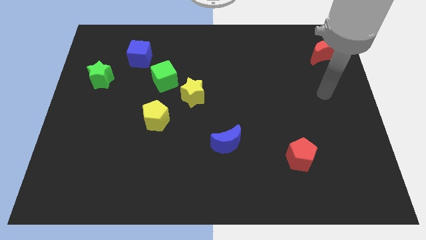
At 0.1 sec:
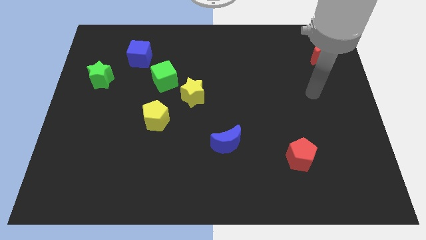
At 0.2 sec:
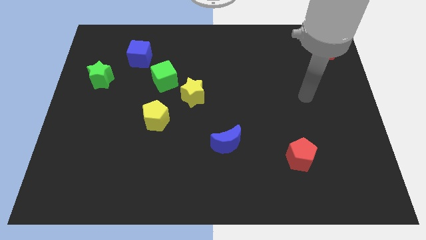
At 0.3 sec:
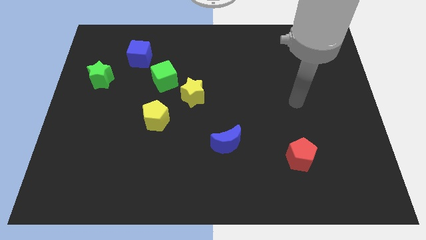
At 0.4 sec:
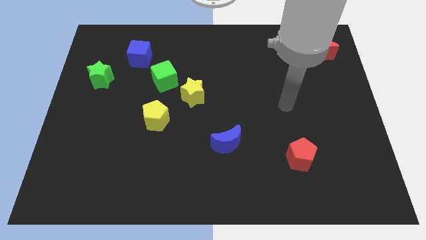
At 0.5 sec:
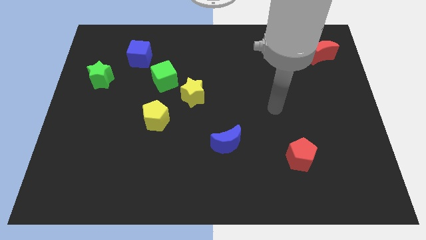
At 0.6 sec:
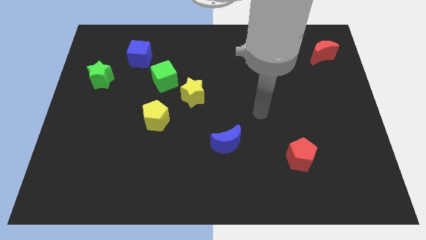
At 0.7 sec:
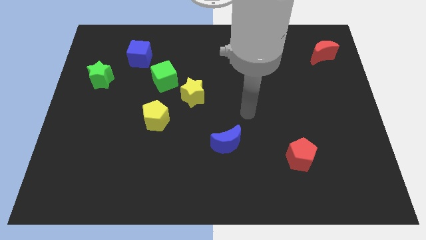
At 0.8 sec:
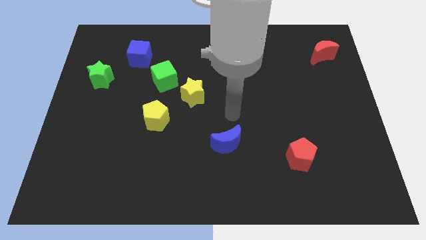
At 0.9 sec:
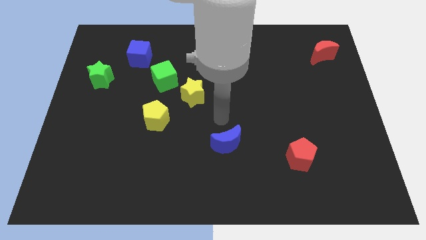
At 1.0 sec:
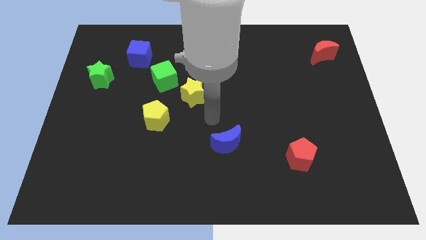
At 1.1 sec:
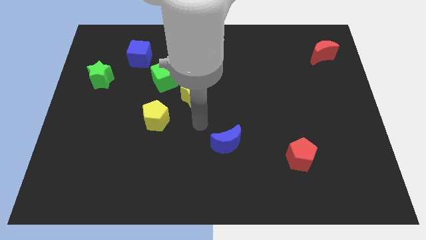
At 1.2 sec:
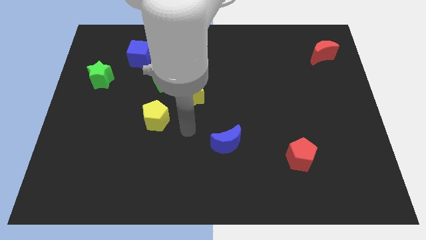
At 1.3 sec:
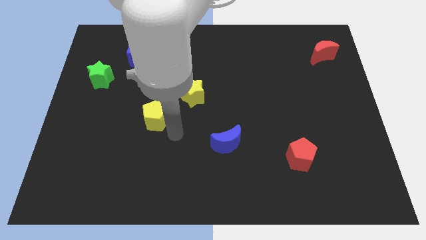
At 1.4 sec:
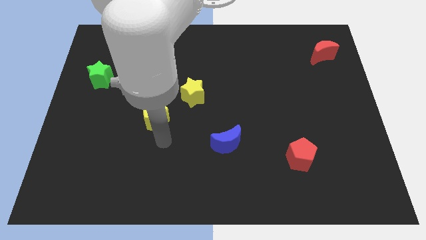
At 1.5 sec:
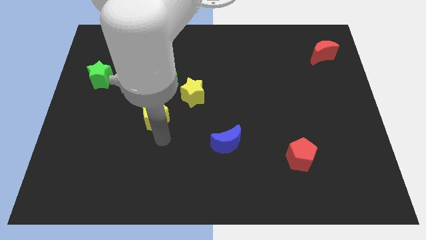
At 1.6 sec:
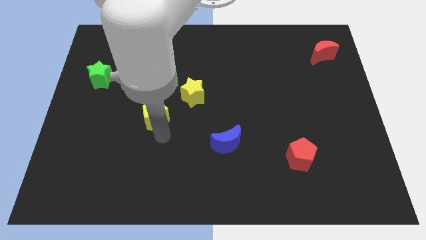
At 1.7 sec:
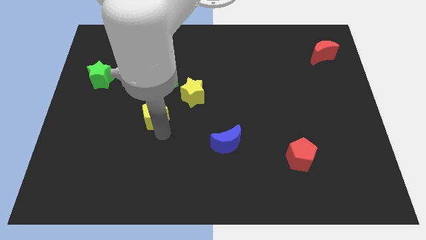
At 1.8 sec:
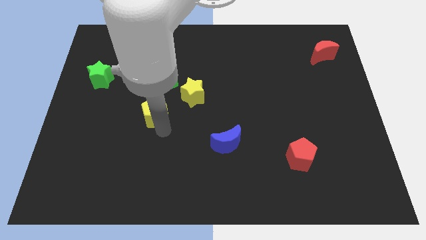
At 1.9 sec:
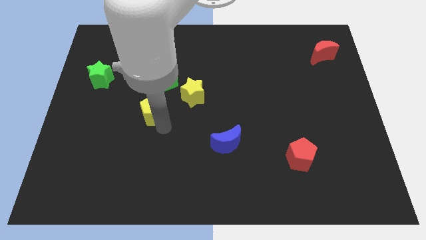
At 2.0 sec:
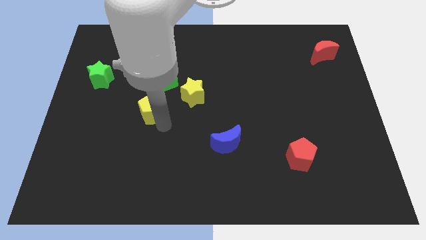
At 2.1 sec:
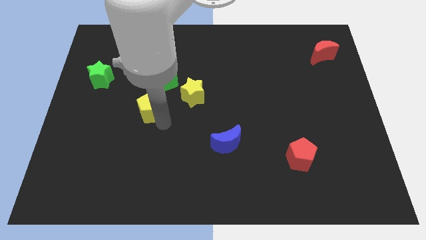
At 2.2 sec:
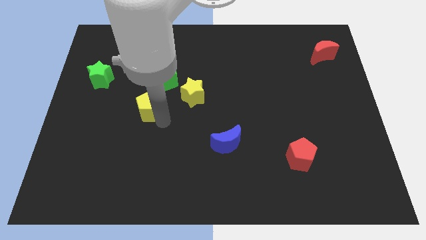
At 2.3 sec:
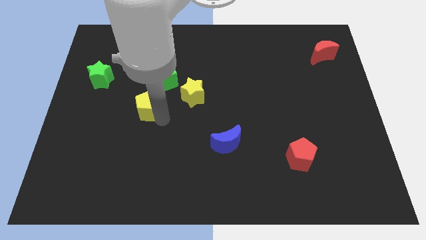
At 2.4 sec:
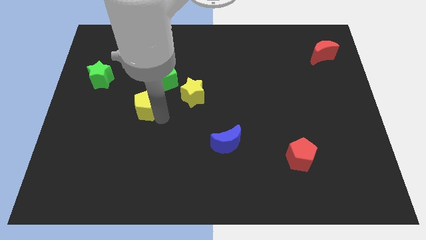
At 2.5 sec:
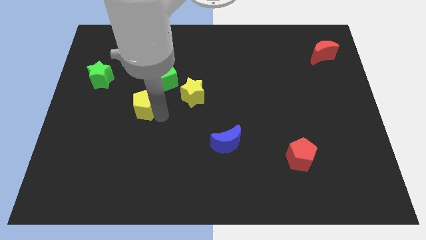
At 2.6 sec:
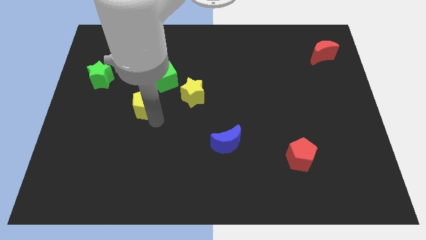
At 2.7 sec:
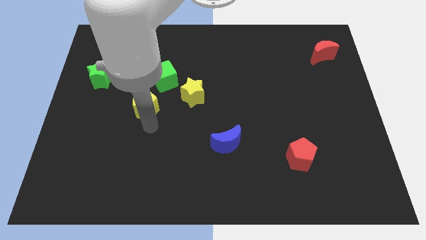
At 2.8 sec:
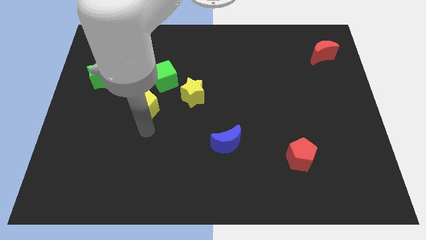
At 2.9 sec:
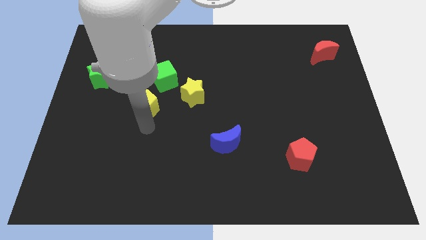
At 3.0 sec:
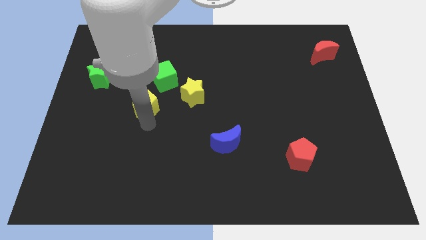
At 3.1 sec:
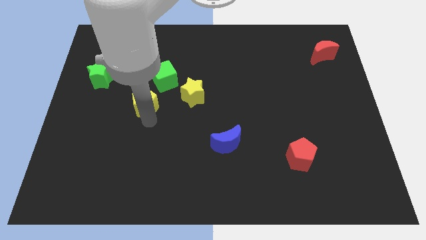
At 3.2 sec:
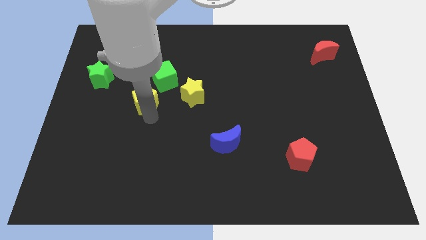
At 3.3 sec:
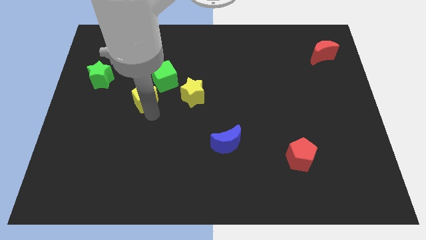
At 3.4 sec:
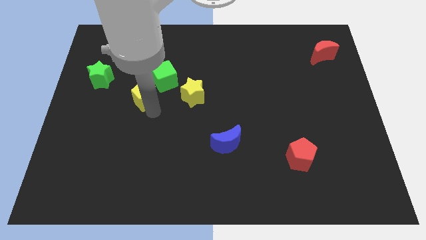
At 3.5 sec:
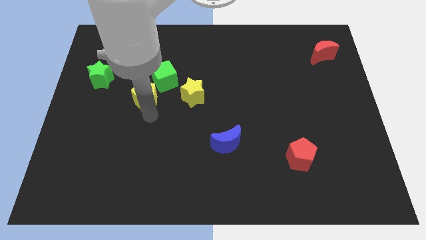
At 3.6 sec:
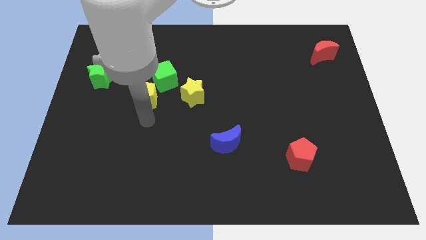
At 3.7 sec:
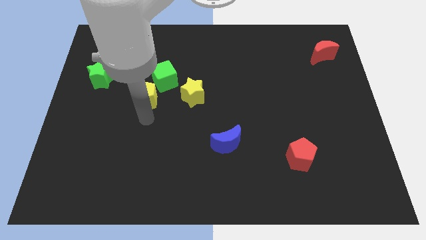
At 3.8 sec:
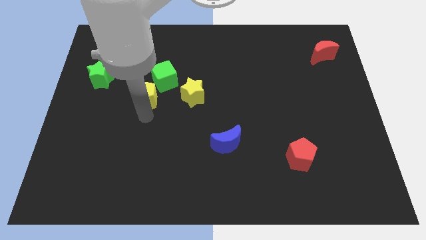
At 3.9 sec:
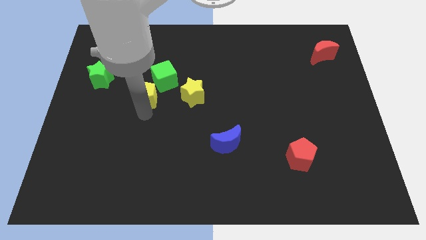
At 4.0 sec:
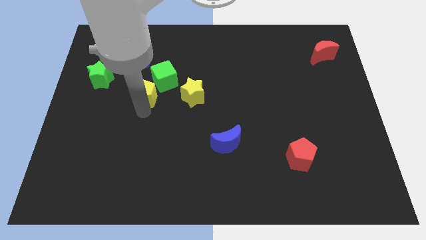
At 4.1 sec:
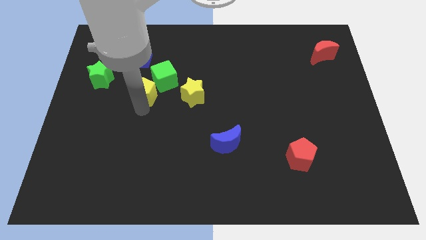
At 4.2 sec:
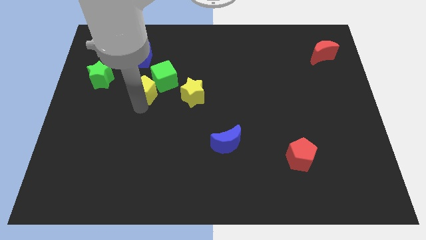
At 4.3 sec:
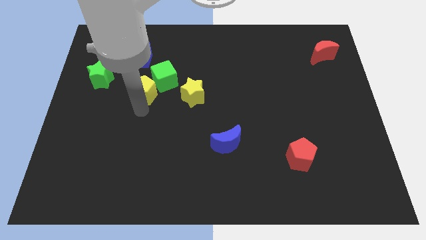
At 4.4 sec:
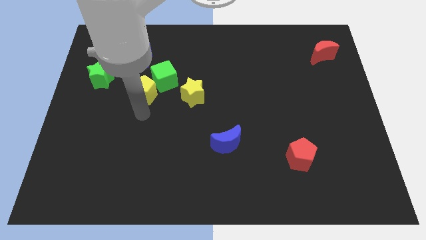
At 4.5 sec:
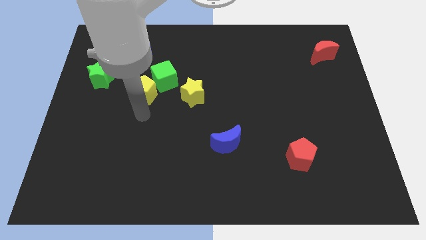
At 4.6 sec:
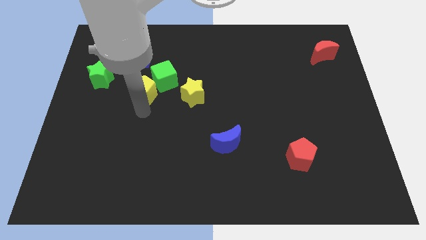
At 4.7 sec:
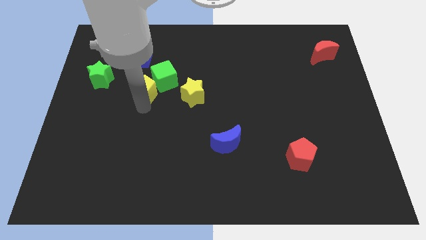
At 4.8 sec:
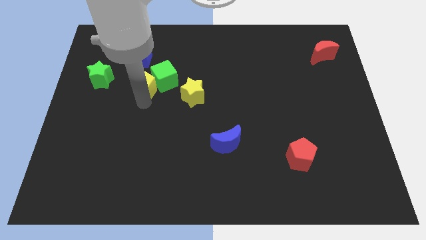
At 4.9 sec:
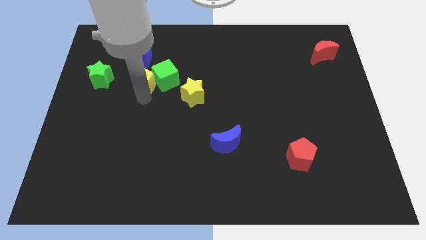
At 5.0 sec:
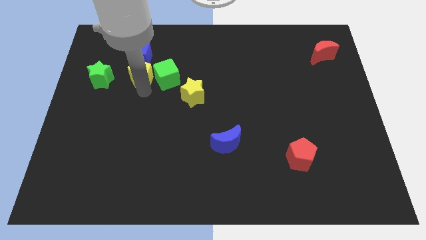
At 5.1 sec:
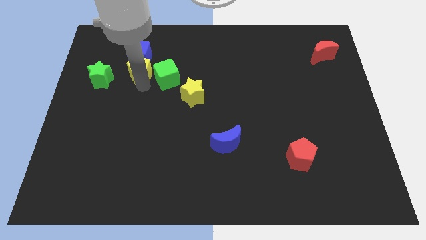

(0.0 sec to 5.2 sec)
push the yellow pentagon to the blue cube

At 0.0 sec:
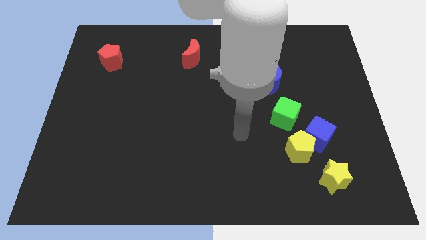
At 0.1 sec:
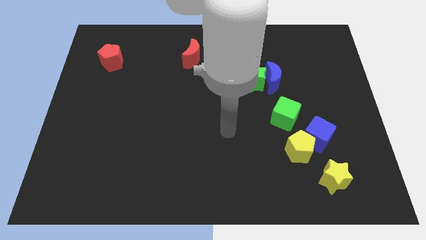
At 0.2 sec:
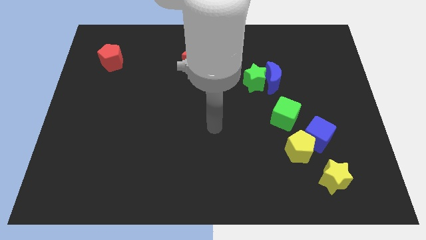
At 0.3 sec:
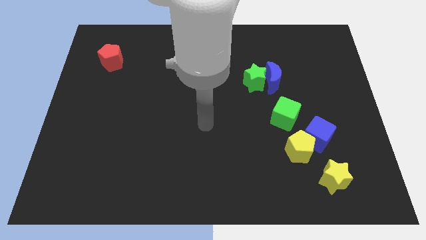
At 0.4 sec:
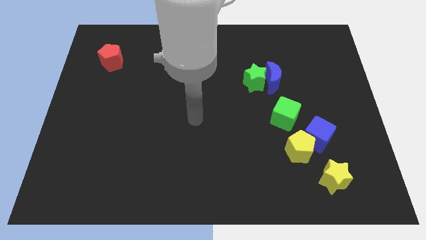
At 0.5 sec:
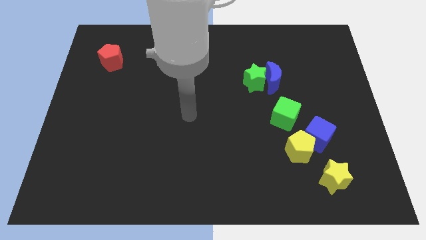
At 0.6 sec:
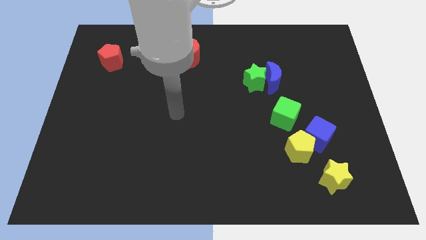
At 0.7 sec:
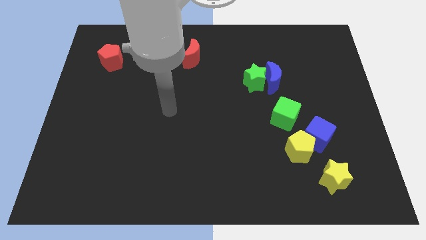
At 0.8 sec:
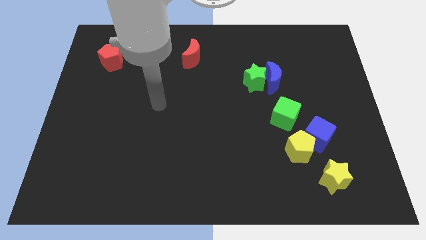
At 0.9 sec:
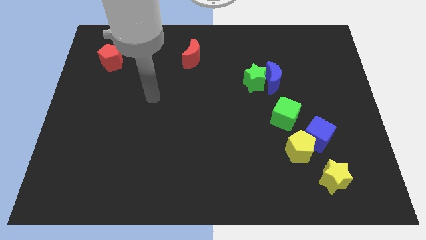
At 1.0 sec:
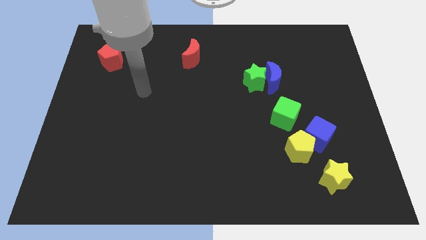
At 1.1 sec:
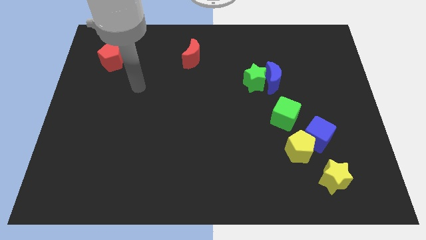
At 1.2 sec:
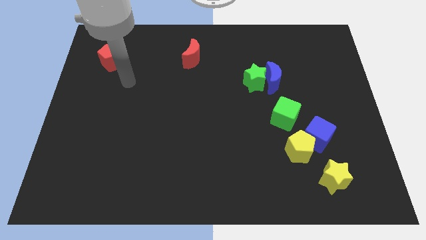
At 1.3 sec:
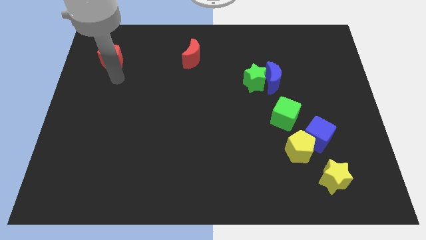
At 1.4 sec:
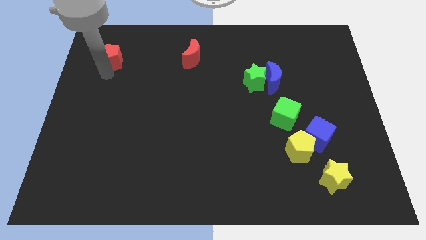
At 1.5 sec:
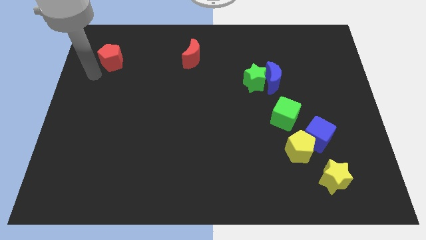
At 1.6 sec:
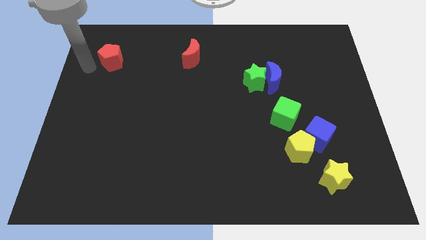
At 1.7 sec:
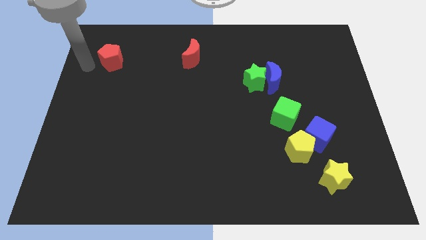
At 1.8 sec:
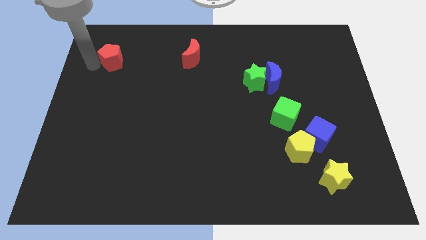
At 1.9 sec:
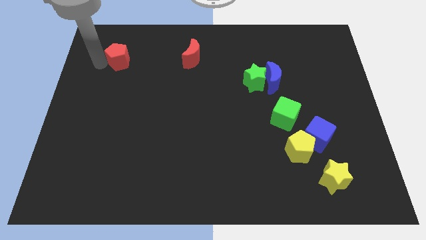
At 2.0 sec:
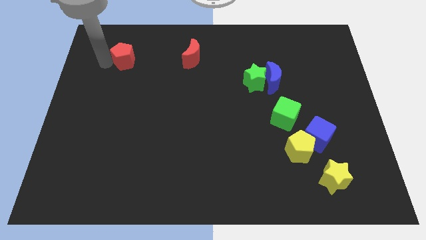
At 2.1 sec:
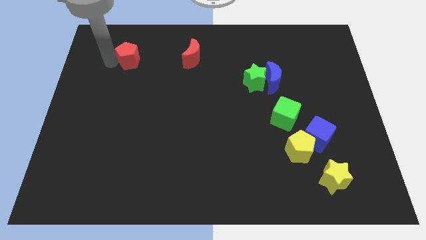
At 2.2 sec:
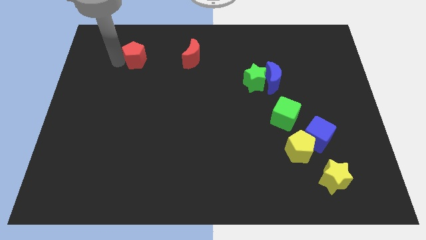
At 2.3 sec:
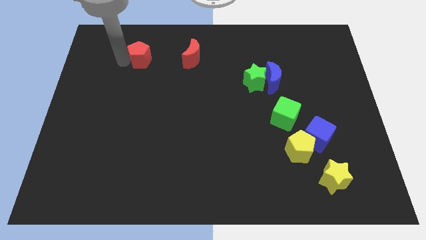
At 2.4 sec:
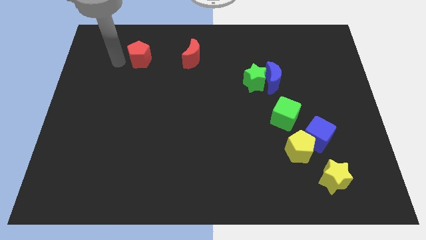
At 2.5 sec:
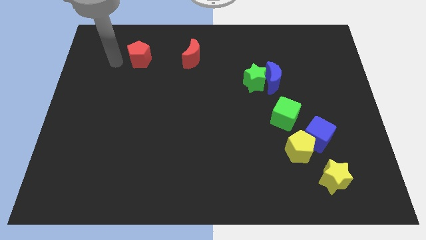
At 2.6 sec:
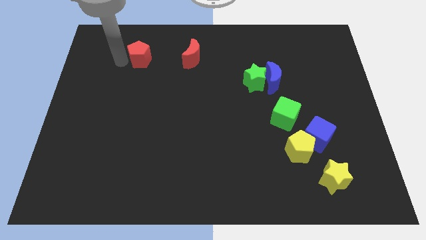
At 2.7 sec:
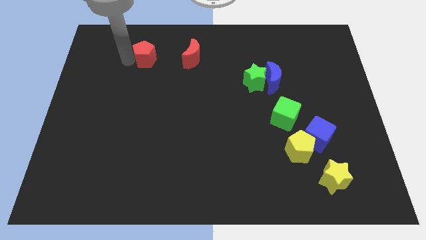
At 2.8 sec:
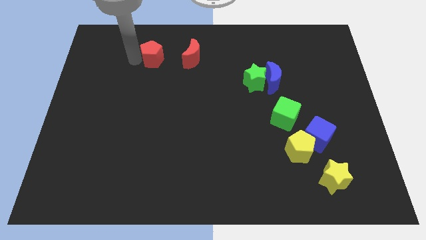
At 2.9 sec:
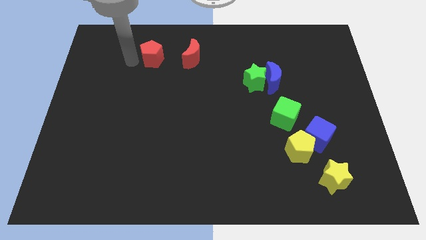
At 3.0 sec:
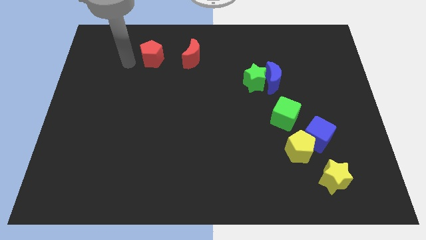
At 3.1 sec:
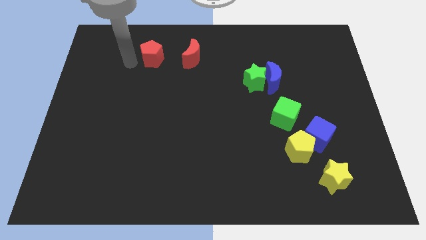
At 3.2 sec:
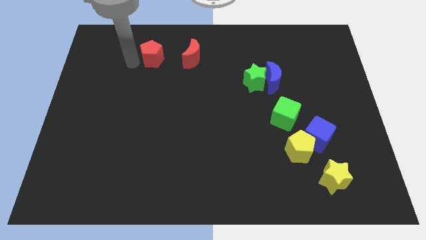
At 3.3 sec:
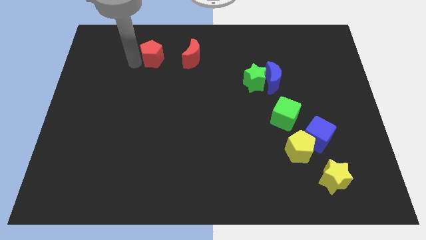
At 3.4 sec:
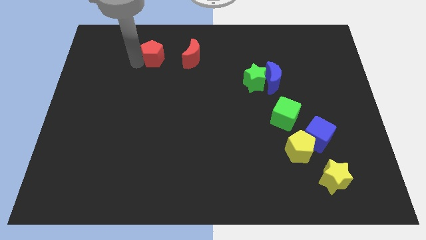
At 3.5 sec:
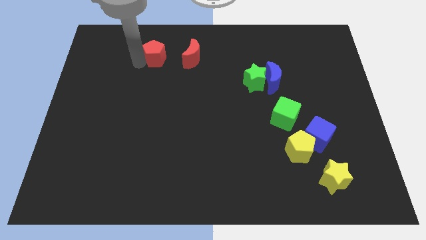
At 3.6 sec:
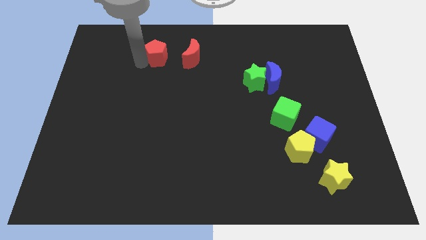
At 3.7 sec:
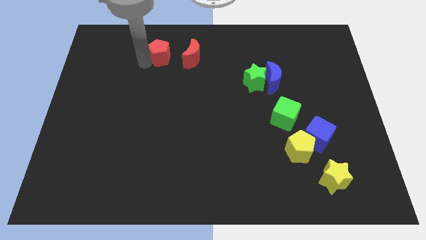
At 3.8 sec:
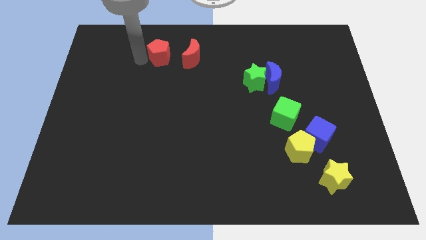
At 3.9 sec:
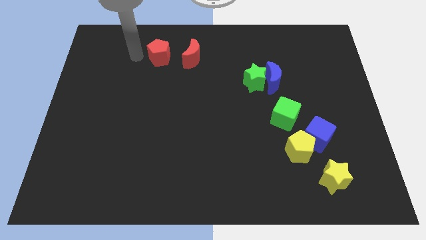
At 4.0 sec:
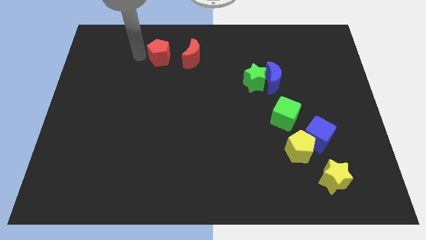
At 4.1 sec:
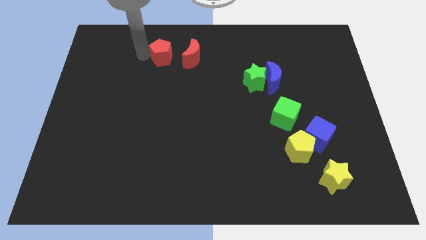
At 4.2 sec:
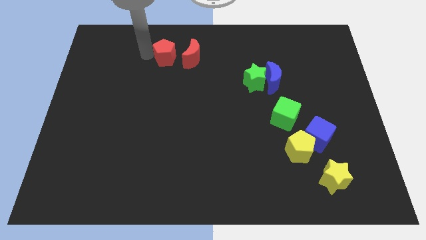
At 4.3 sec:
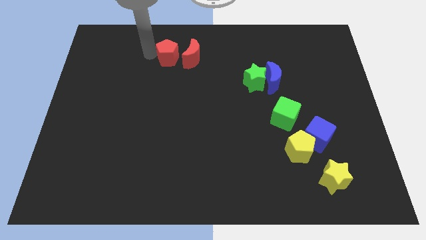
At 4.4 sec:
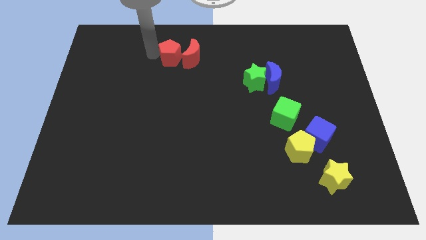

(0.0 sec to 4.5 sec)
move the red pentagon close to the red moon
